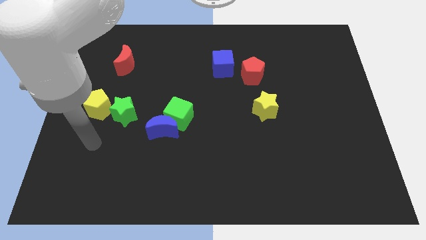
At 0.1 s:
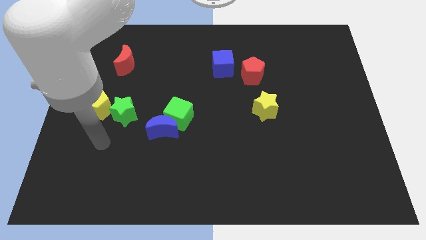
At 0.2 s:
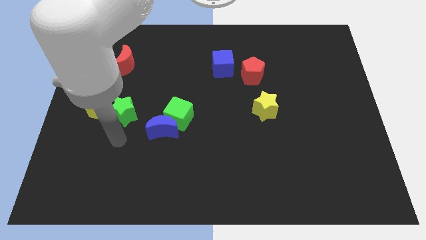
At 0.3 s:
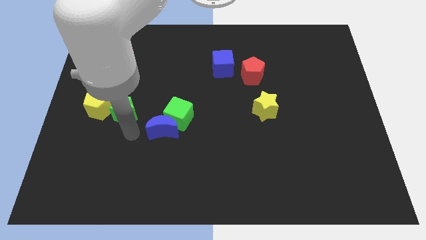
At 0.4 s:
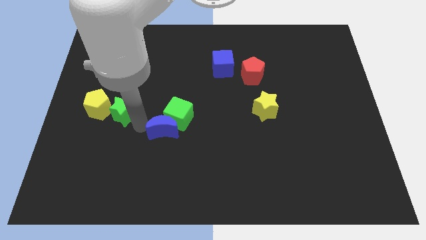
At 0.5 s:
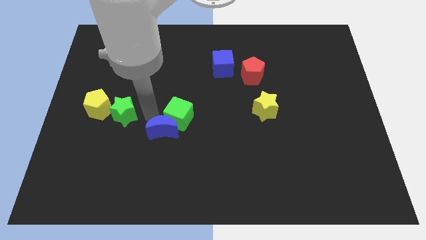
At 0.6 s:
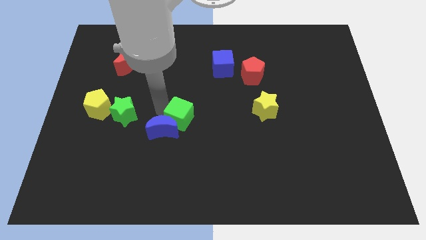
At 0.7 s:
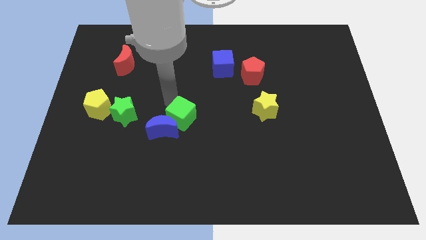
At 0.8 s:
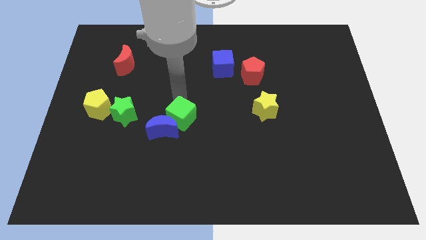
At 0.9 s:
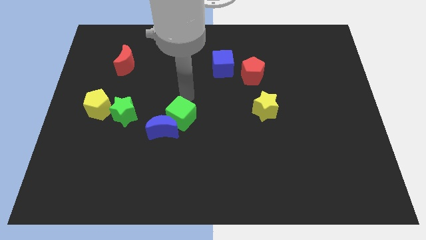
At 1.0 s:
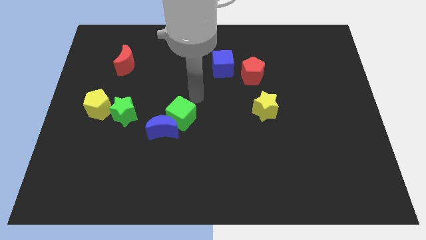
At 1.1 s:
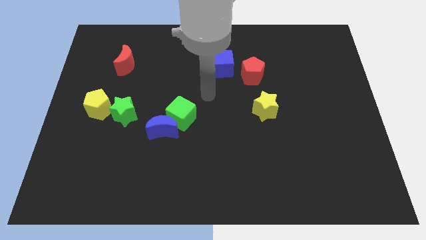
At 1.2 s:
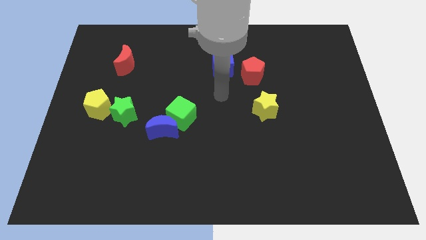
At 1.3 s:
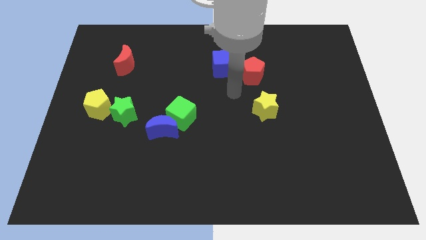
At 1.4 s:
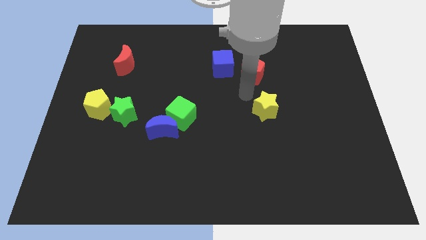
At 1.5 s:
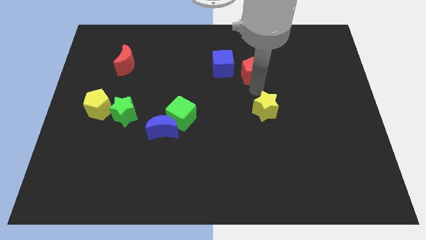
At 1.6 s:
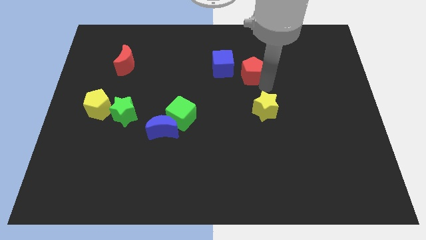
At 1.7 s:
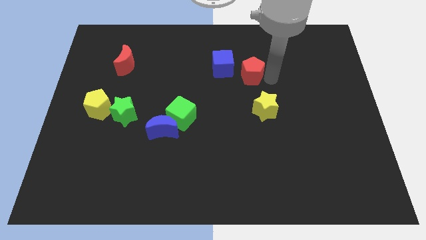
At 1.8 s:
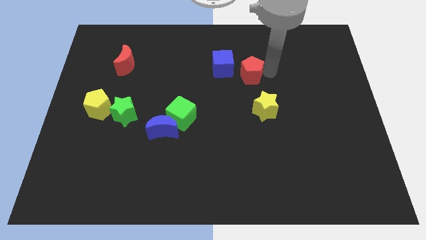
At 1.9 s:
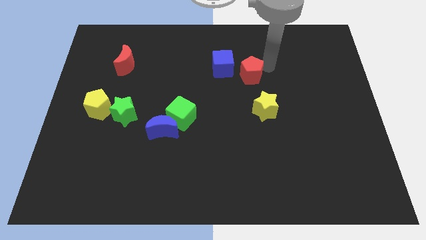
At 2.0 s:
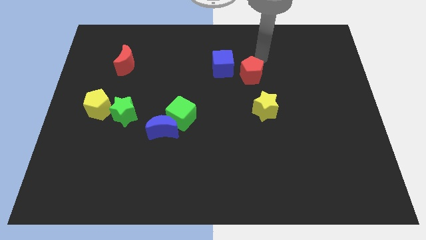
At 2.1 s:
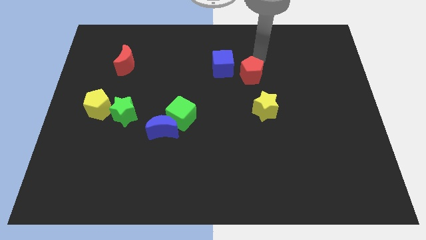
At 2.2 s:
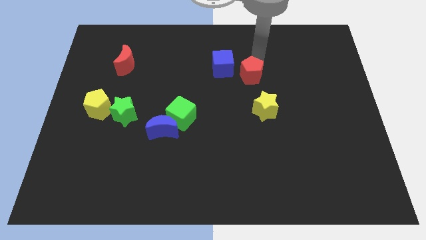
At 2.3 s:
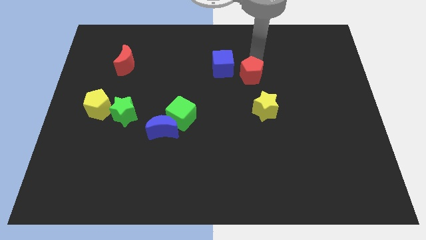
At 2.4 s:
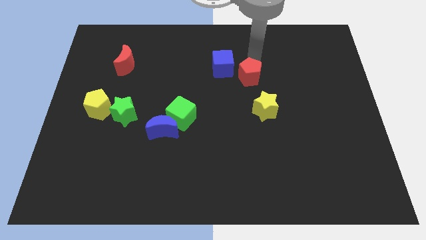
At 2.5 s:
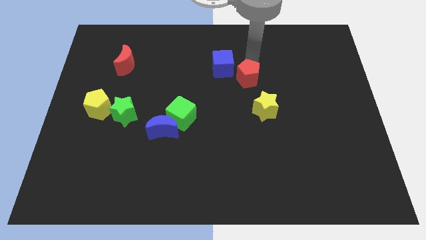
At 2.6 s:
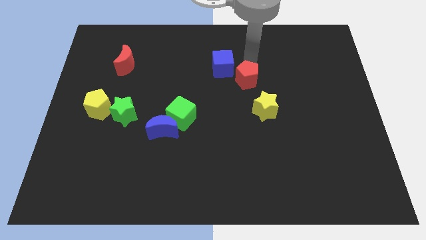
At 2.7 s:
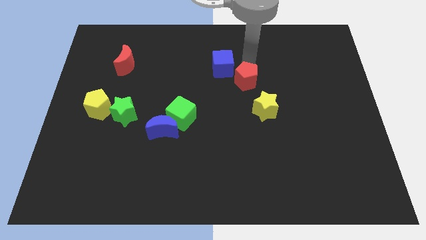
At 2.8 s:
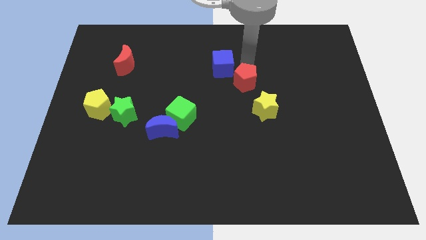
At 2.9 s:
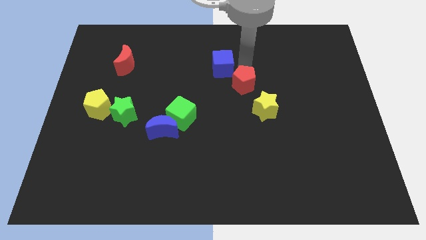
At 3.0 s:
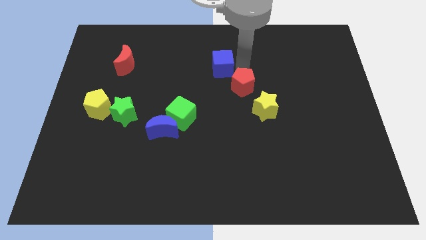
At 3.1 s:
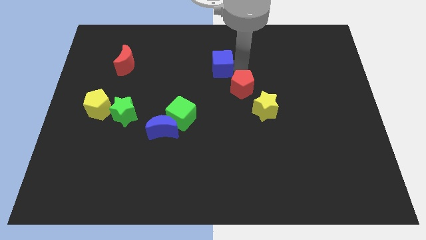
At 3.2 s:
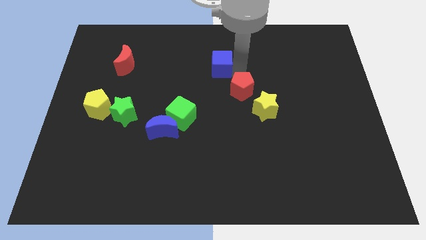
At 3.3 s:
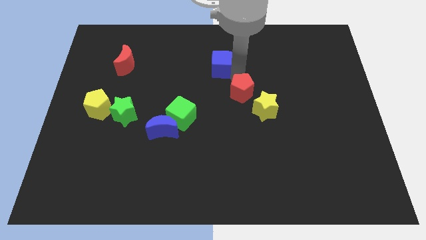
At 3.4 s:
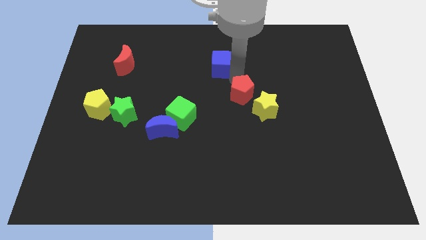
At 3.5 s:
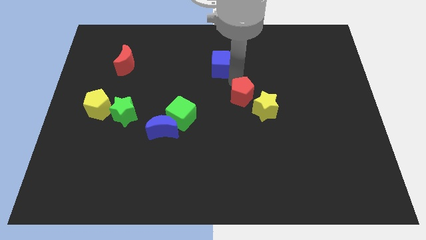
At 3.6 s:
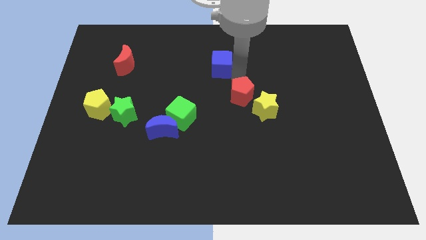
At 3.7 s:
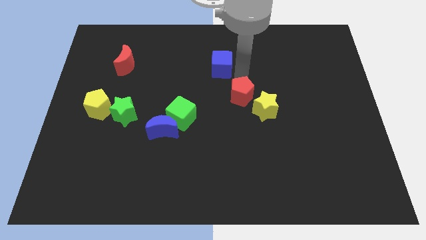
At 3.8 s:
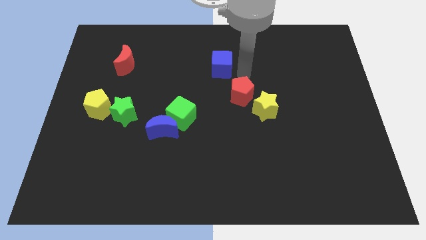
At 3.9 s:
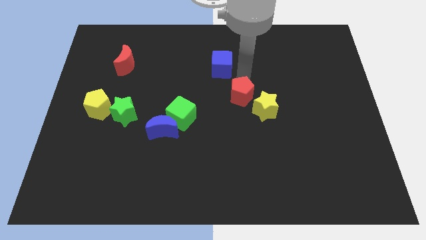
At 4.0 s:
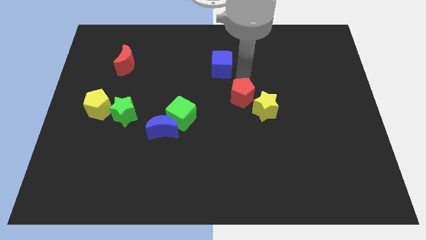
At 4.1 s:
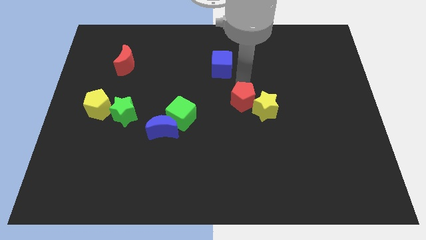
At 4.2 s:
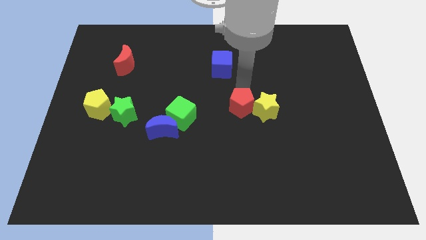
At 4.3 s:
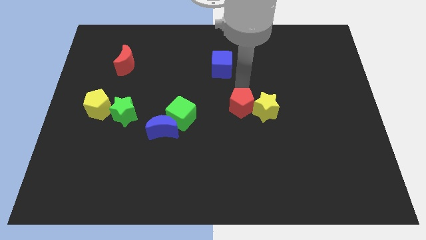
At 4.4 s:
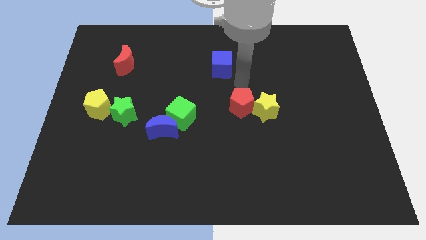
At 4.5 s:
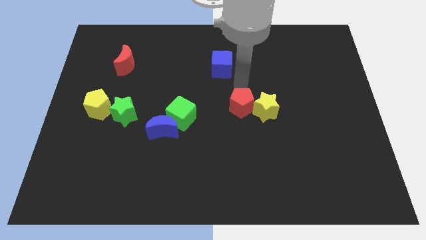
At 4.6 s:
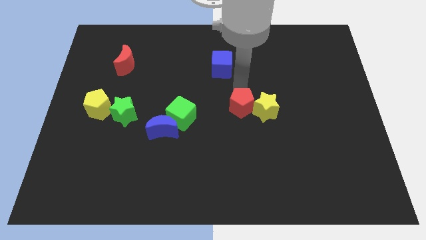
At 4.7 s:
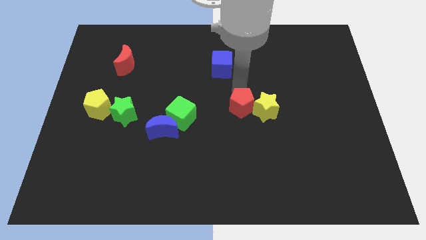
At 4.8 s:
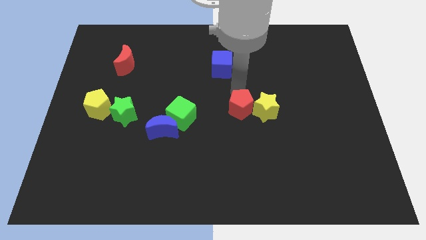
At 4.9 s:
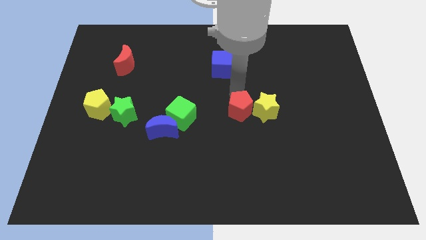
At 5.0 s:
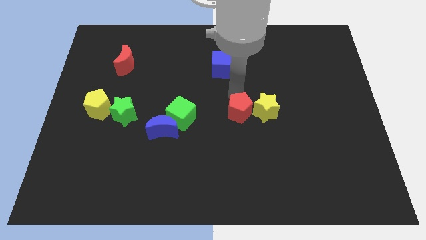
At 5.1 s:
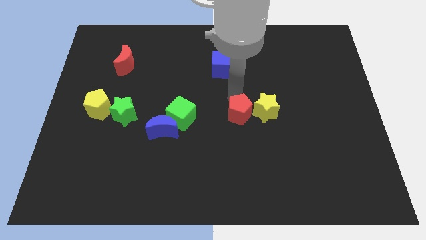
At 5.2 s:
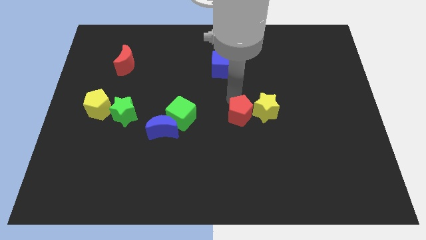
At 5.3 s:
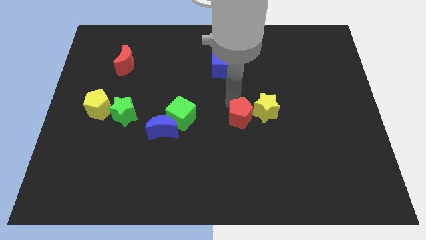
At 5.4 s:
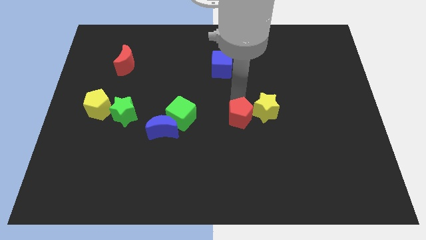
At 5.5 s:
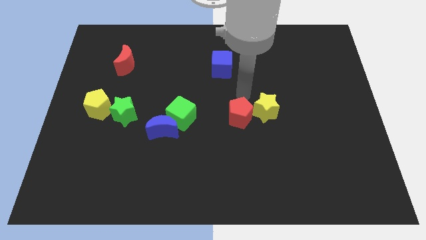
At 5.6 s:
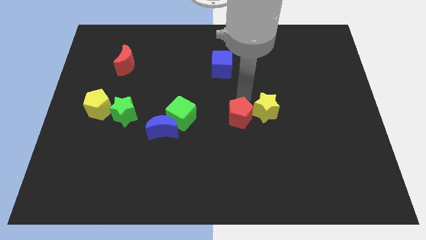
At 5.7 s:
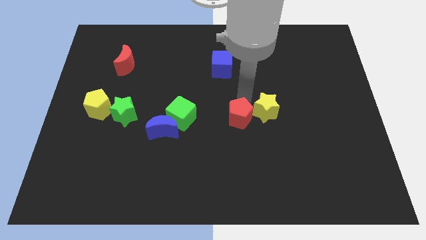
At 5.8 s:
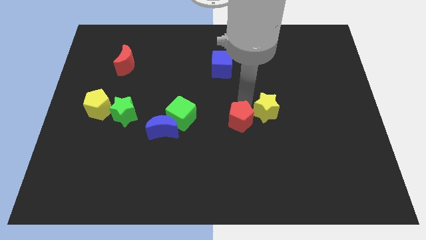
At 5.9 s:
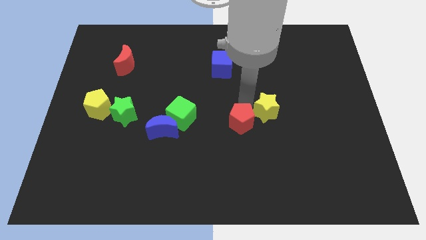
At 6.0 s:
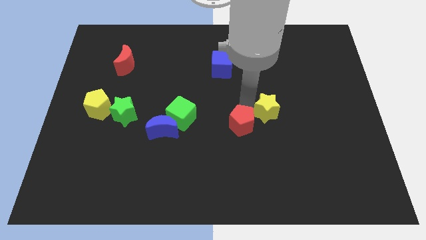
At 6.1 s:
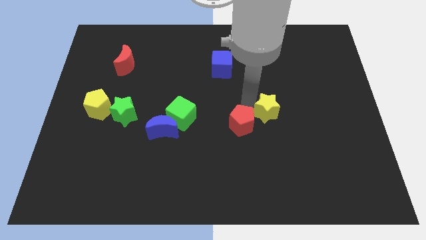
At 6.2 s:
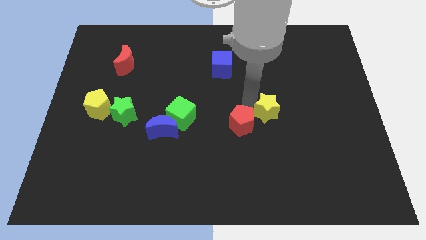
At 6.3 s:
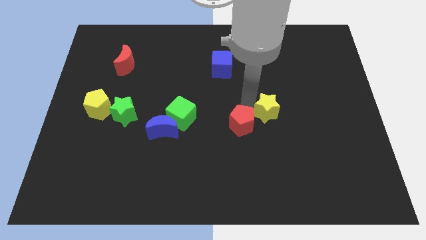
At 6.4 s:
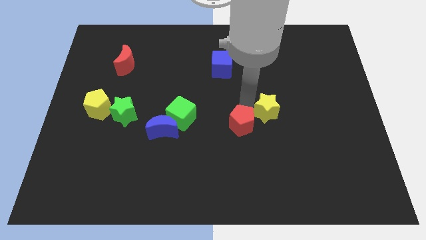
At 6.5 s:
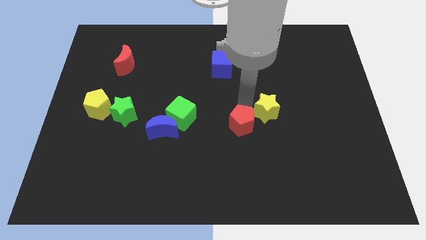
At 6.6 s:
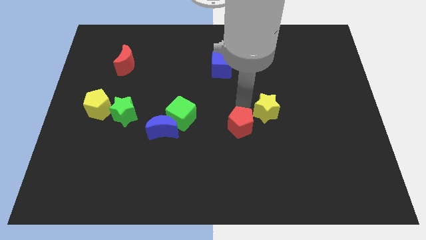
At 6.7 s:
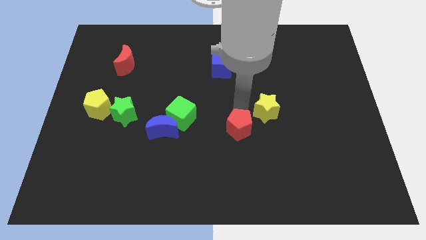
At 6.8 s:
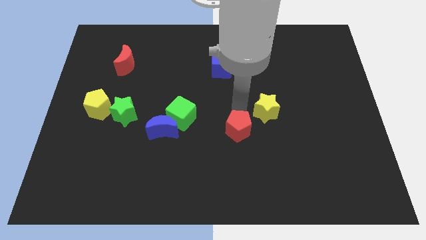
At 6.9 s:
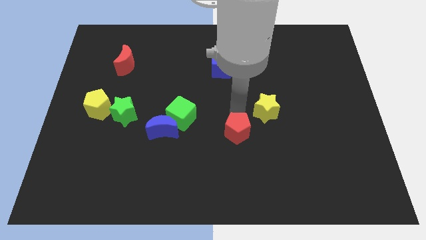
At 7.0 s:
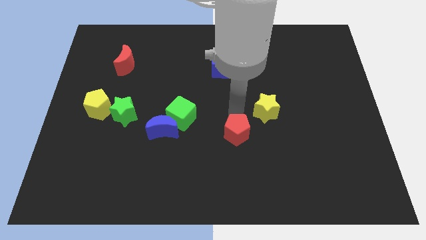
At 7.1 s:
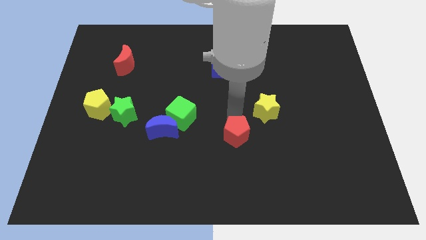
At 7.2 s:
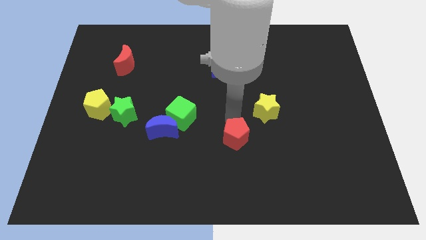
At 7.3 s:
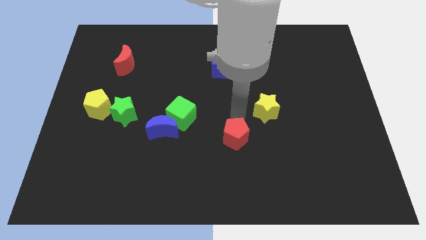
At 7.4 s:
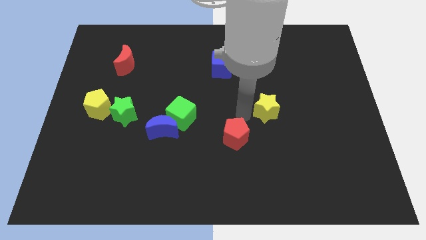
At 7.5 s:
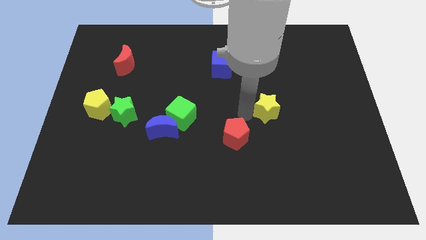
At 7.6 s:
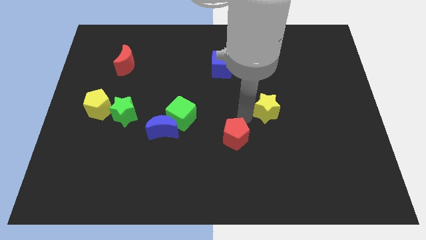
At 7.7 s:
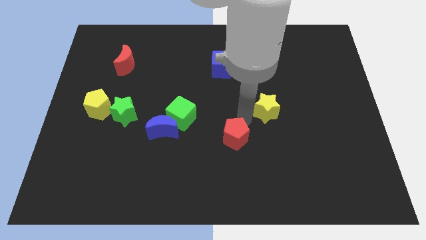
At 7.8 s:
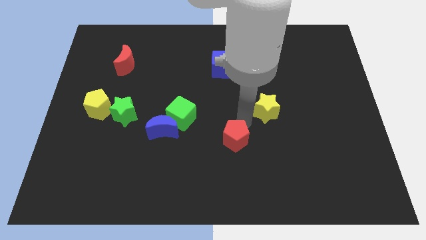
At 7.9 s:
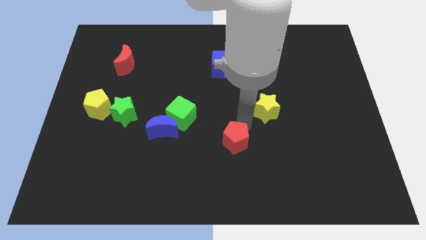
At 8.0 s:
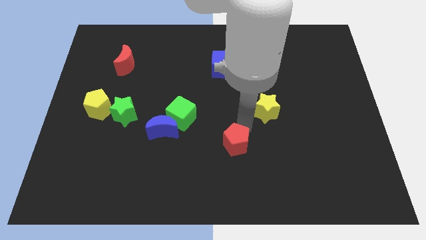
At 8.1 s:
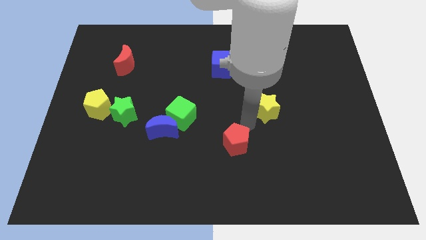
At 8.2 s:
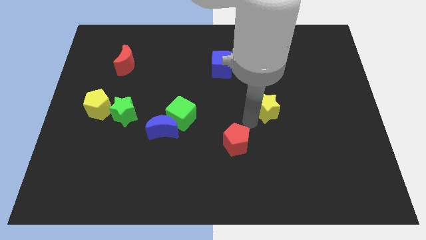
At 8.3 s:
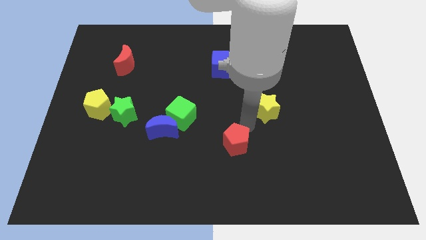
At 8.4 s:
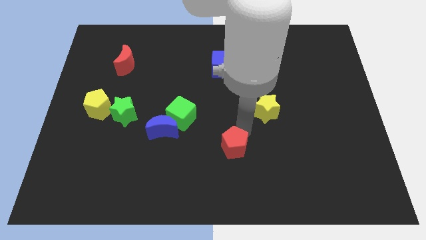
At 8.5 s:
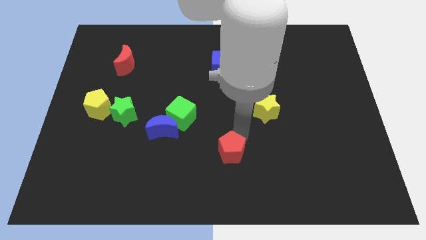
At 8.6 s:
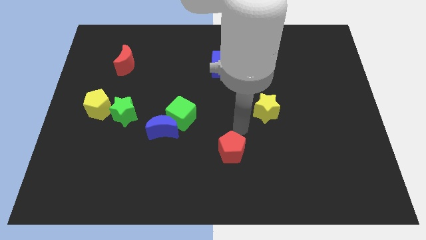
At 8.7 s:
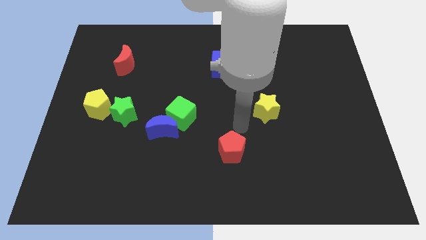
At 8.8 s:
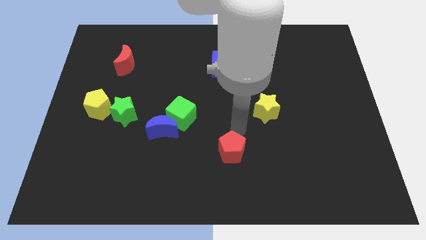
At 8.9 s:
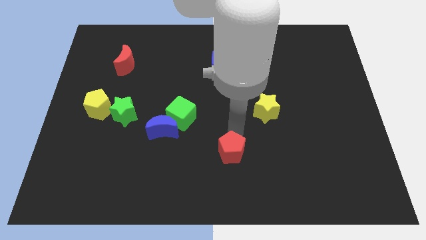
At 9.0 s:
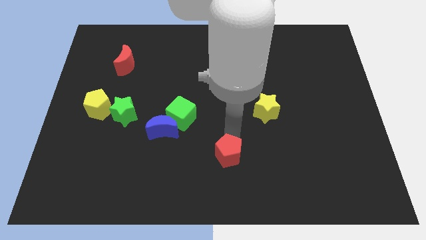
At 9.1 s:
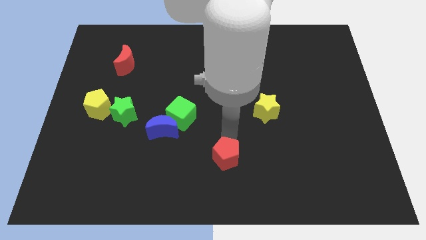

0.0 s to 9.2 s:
slide the red pentagon to the bottom side
